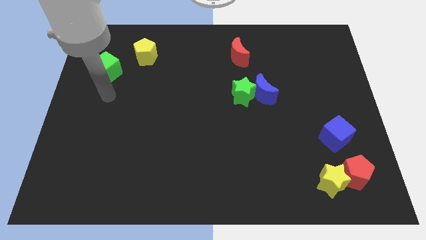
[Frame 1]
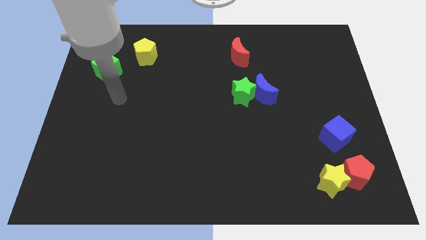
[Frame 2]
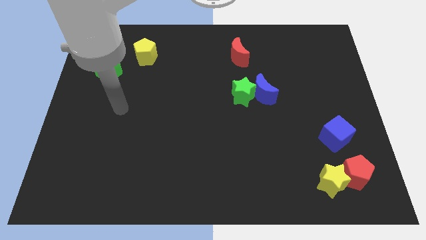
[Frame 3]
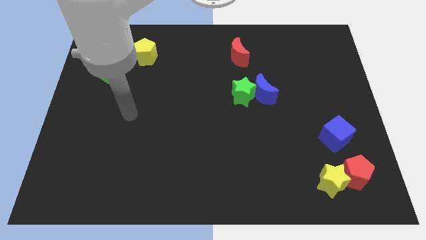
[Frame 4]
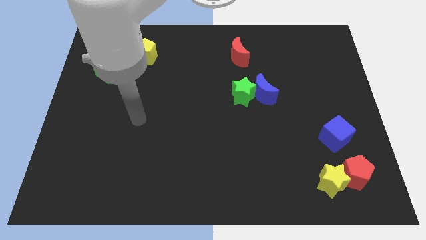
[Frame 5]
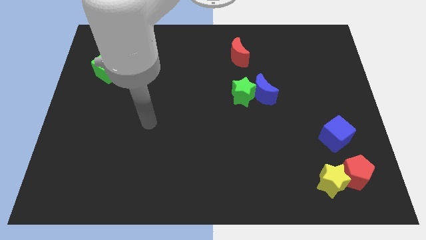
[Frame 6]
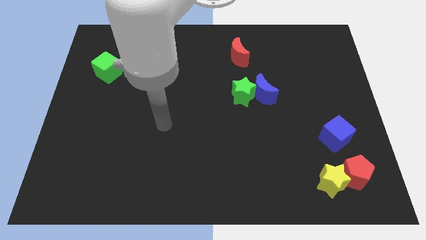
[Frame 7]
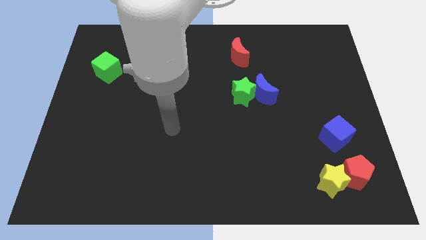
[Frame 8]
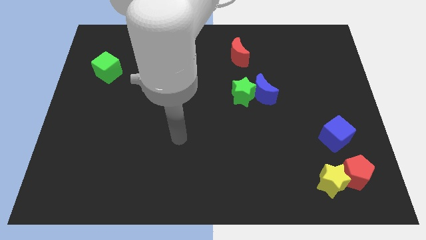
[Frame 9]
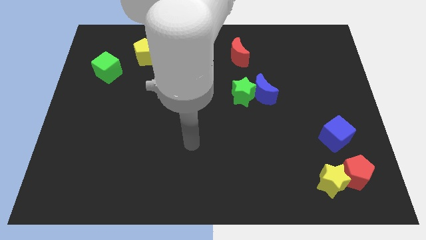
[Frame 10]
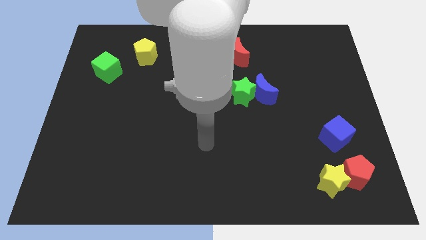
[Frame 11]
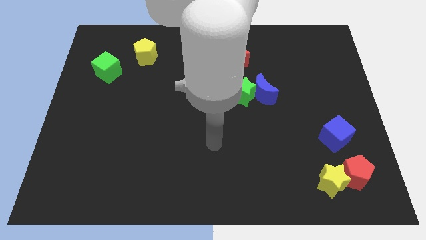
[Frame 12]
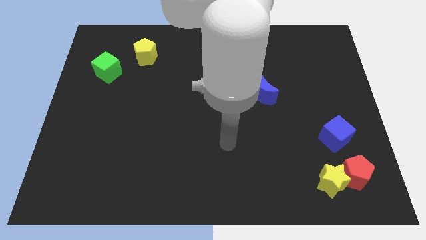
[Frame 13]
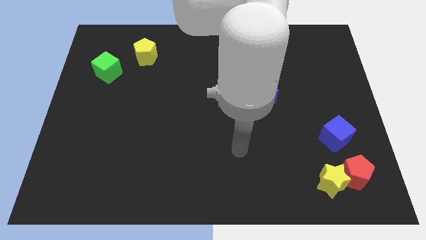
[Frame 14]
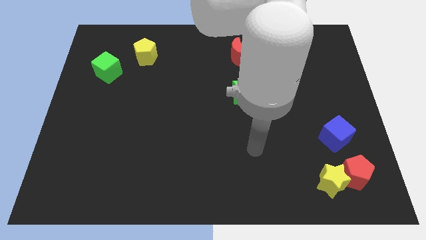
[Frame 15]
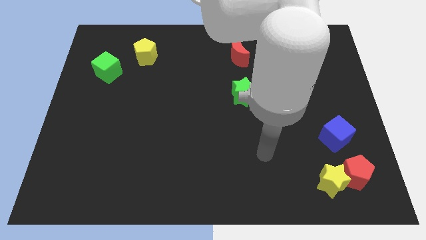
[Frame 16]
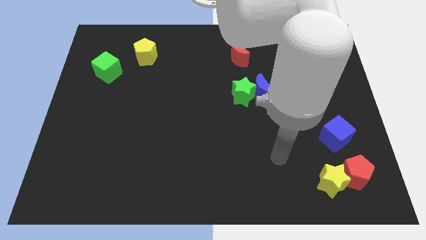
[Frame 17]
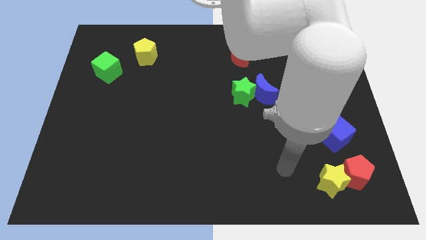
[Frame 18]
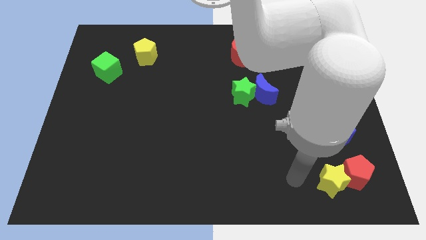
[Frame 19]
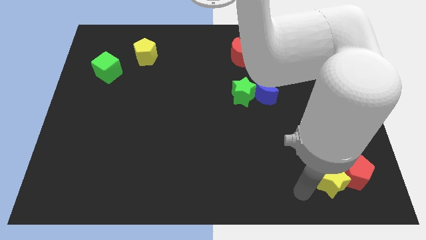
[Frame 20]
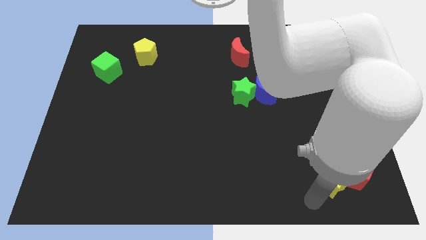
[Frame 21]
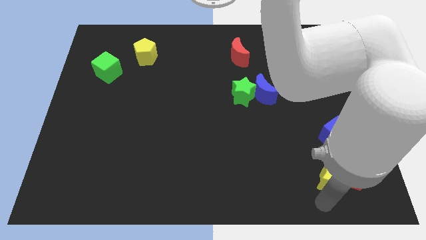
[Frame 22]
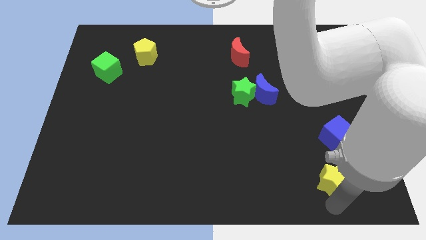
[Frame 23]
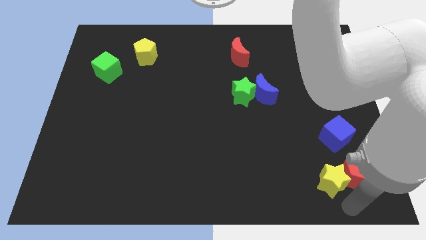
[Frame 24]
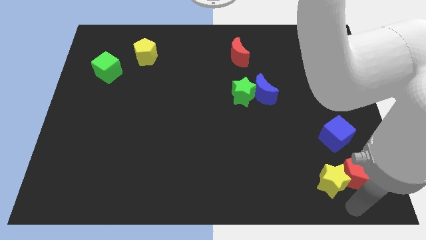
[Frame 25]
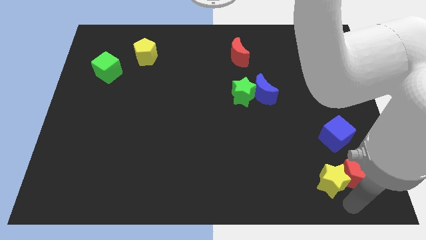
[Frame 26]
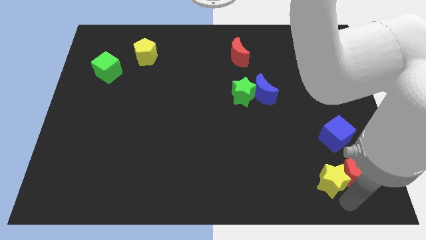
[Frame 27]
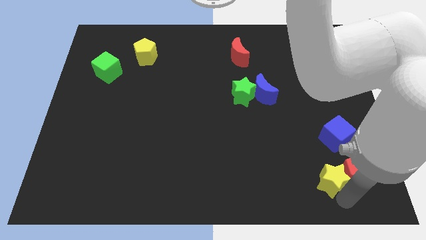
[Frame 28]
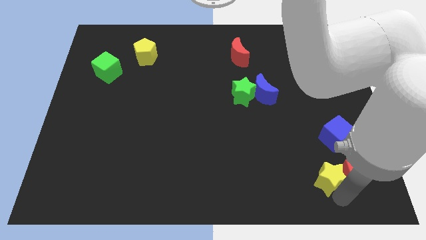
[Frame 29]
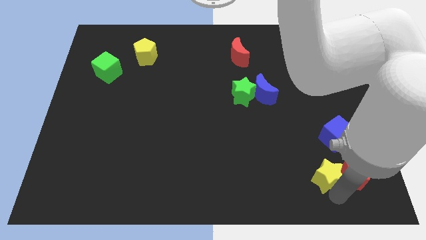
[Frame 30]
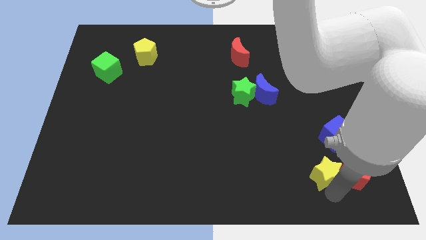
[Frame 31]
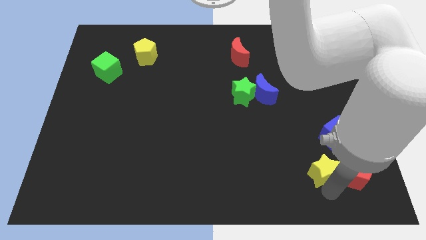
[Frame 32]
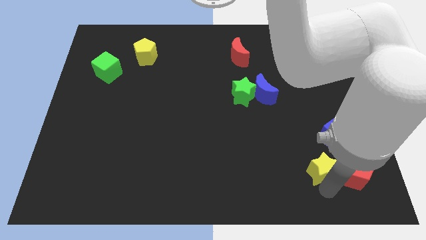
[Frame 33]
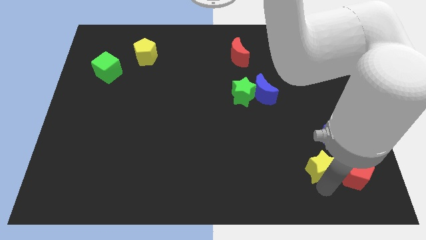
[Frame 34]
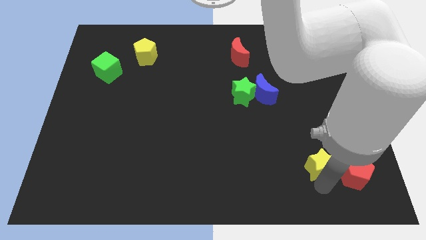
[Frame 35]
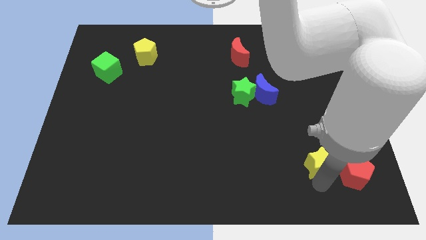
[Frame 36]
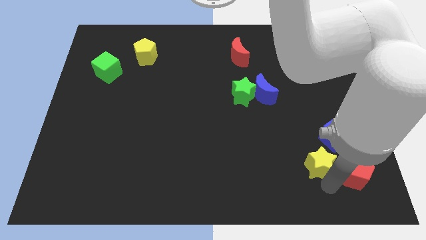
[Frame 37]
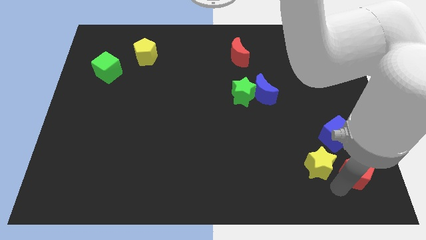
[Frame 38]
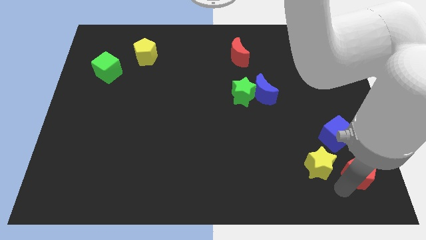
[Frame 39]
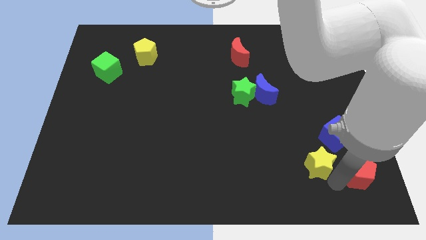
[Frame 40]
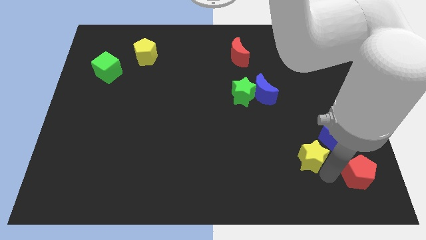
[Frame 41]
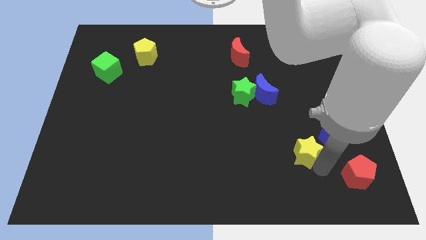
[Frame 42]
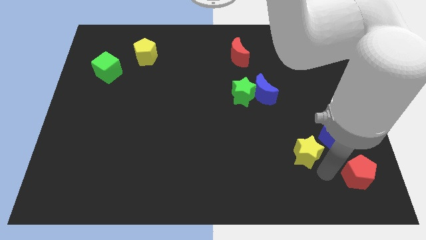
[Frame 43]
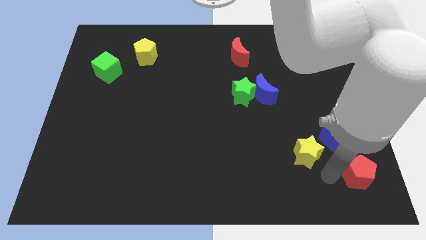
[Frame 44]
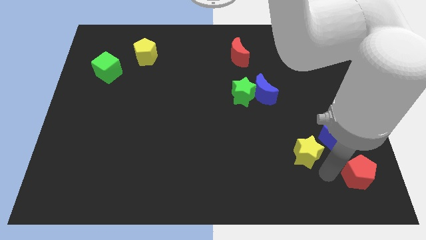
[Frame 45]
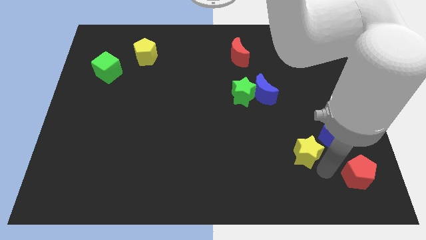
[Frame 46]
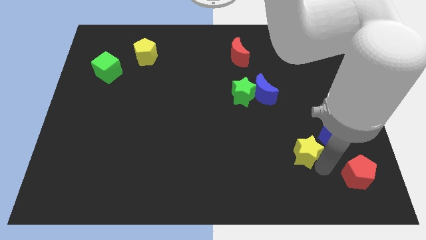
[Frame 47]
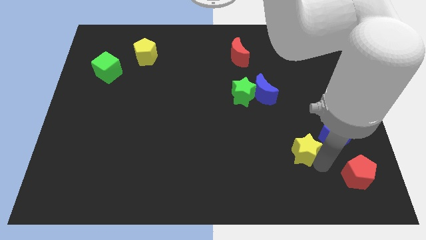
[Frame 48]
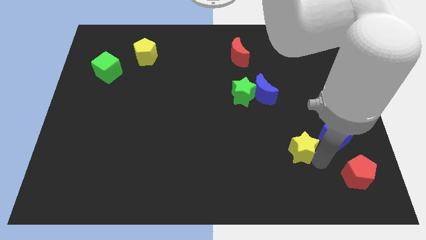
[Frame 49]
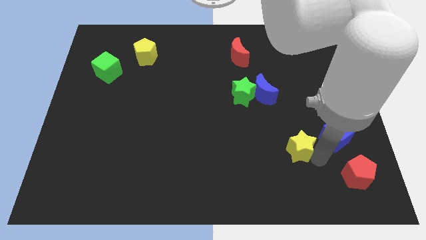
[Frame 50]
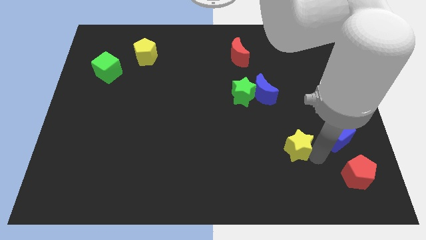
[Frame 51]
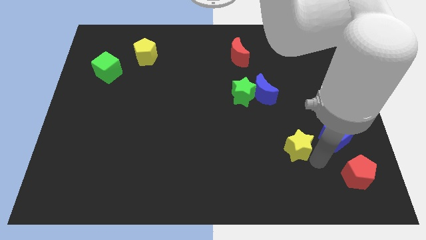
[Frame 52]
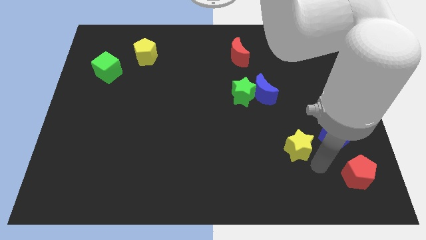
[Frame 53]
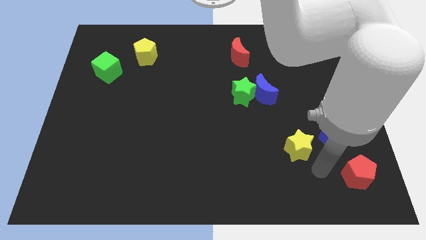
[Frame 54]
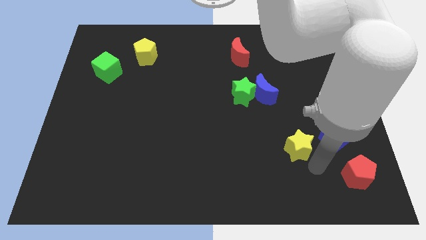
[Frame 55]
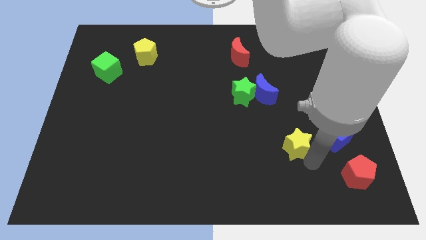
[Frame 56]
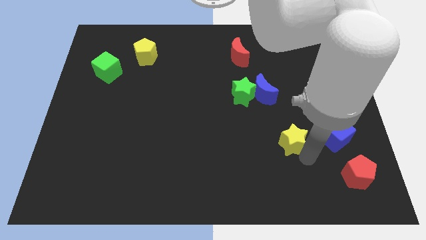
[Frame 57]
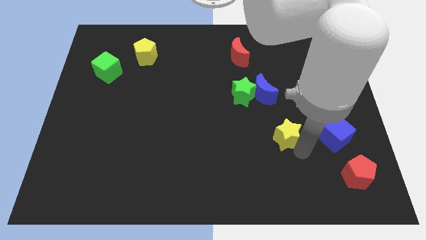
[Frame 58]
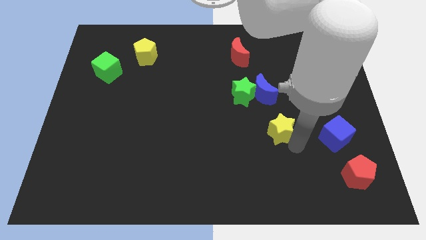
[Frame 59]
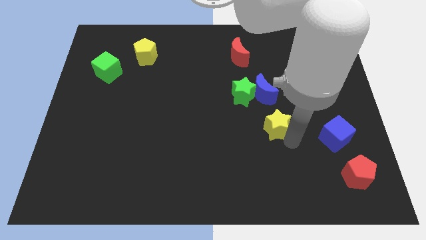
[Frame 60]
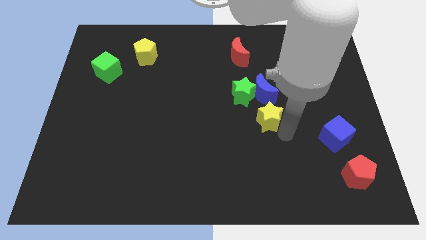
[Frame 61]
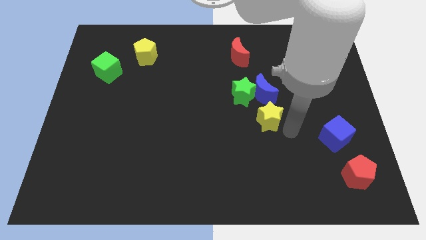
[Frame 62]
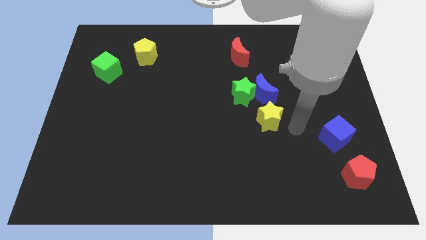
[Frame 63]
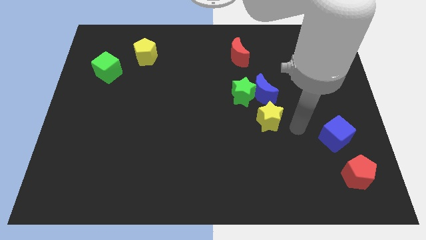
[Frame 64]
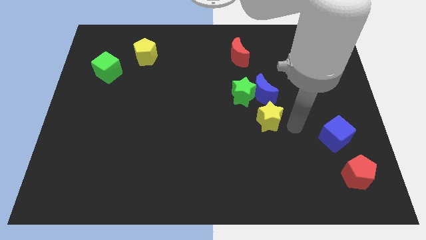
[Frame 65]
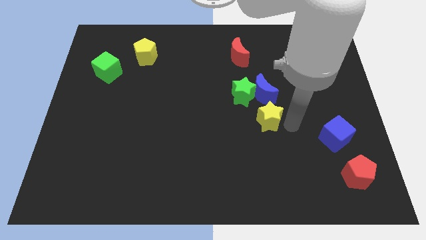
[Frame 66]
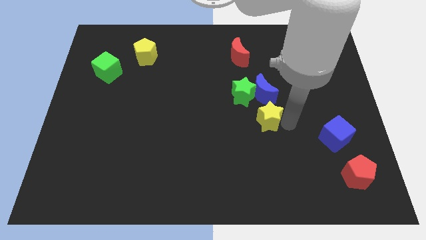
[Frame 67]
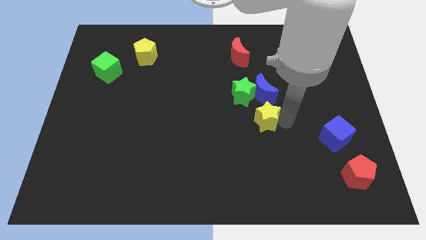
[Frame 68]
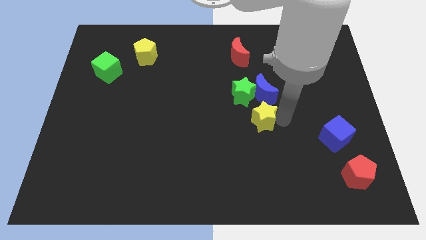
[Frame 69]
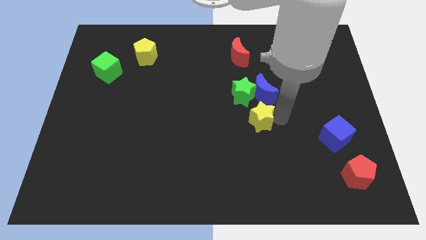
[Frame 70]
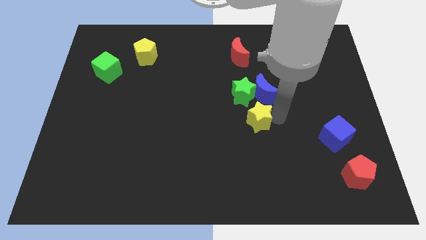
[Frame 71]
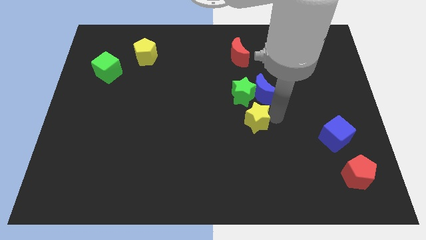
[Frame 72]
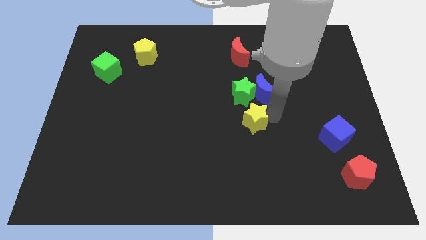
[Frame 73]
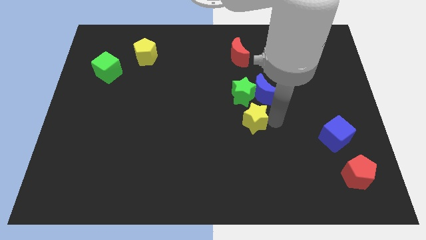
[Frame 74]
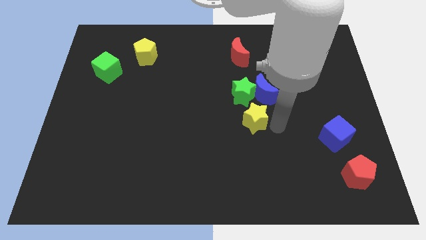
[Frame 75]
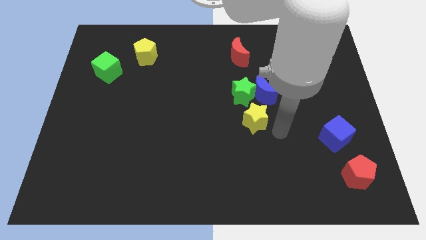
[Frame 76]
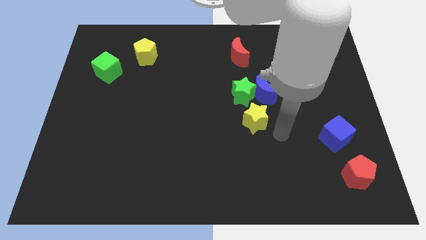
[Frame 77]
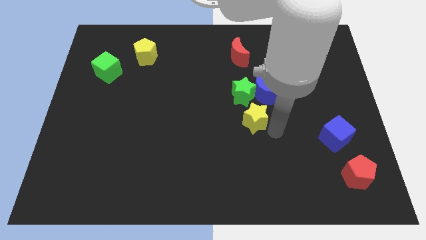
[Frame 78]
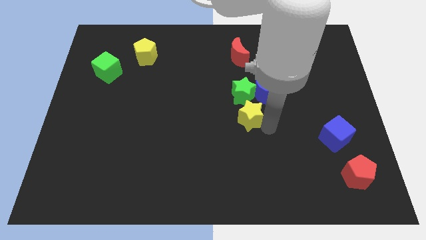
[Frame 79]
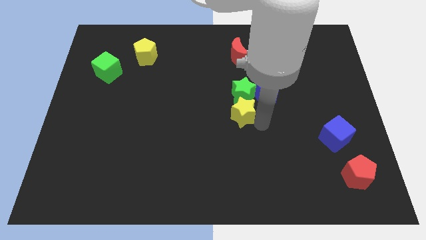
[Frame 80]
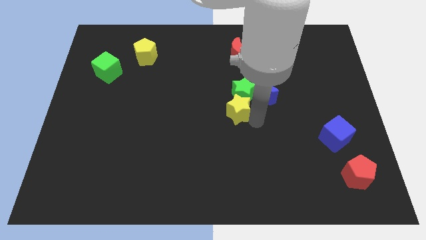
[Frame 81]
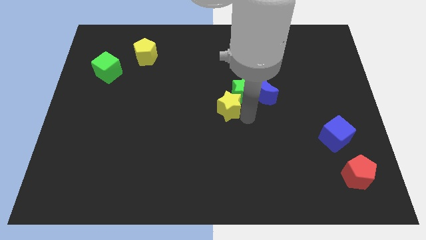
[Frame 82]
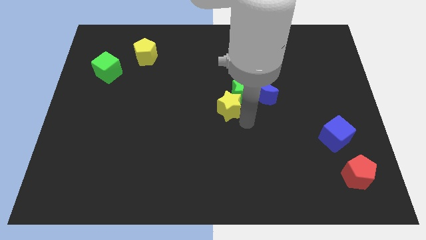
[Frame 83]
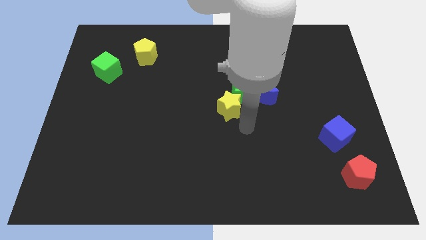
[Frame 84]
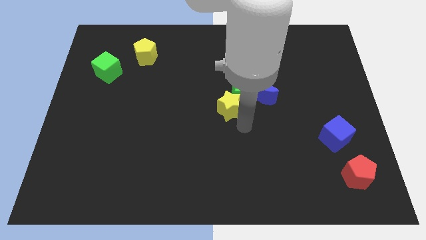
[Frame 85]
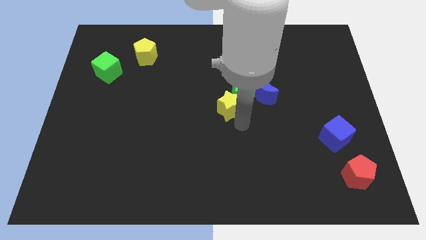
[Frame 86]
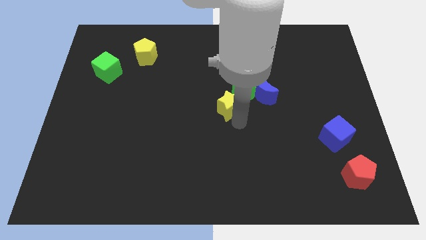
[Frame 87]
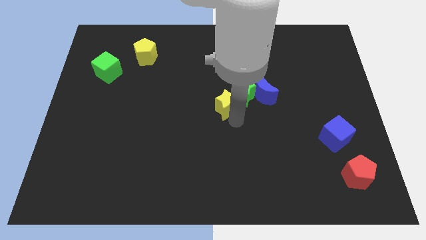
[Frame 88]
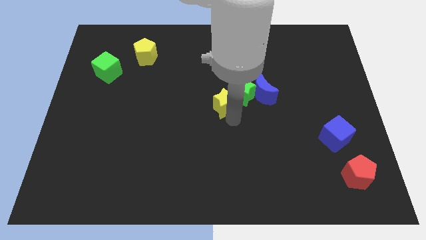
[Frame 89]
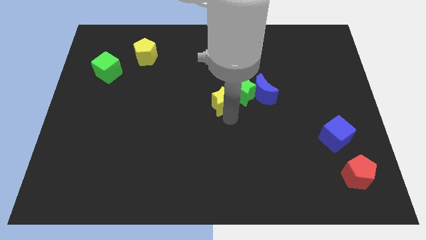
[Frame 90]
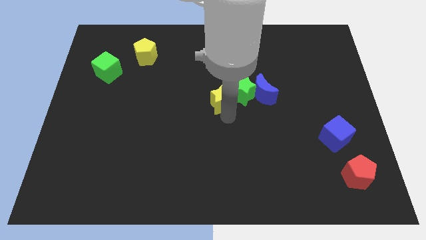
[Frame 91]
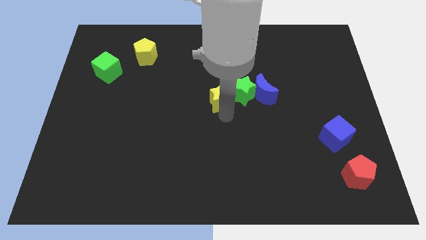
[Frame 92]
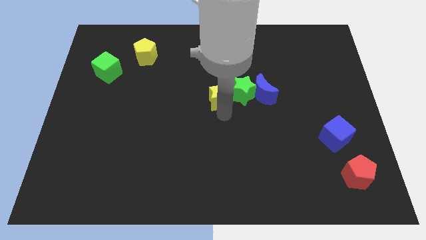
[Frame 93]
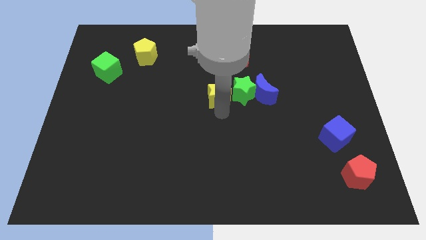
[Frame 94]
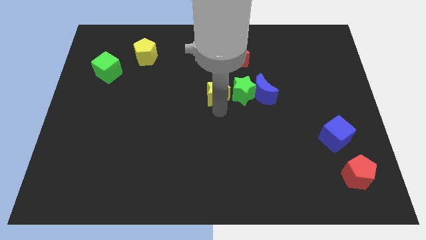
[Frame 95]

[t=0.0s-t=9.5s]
slide the yellow star to the top left side of the green star
